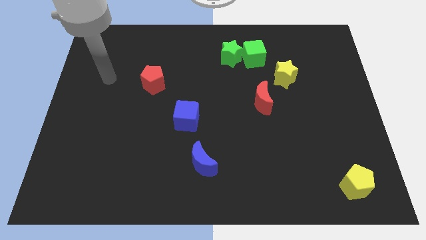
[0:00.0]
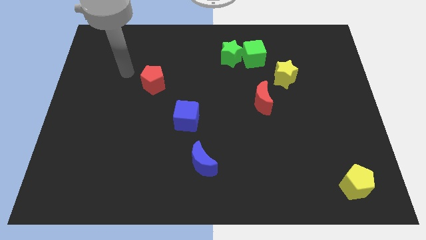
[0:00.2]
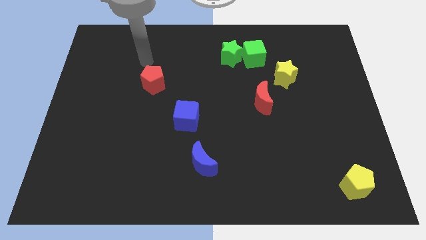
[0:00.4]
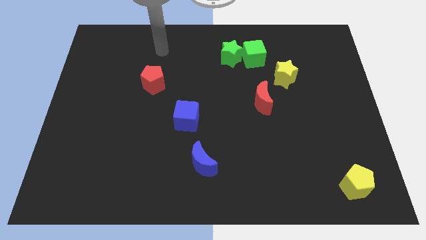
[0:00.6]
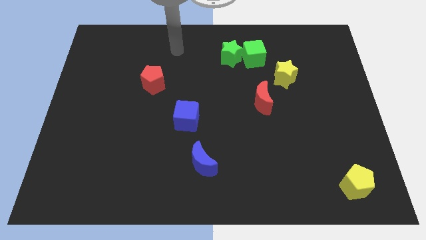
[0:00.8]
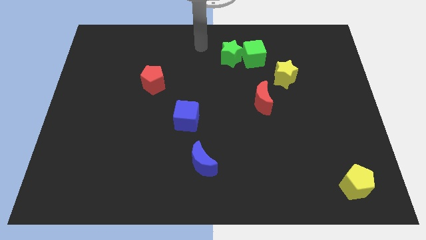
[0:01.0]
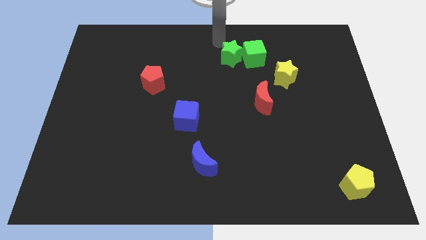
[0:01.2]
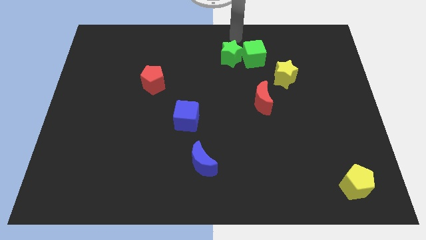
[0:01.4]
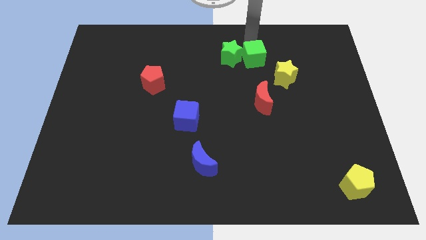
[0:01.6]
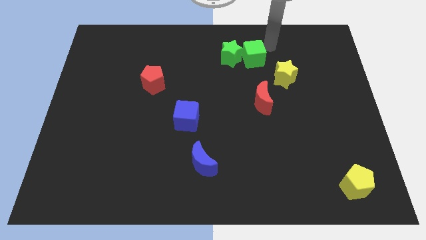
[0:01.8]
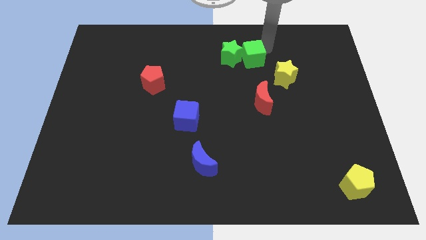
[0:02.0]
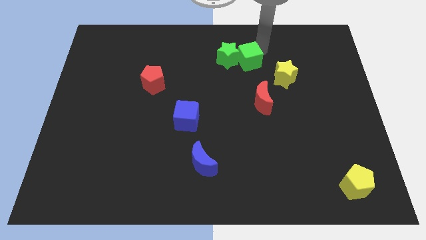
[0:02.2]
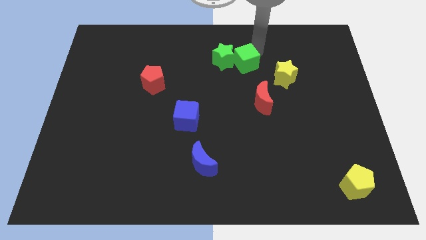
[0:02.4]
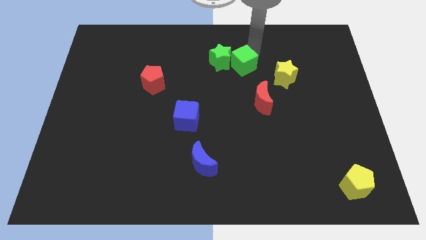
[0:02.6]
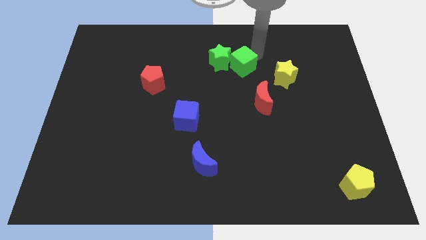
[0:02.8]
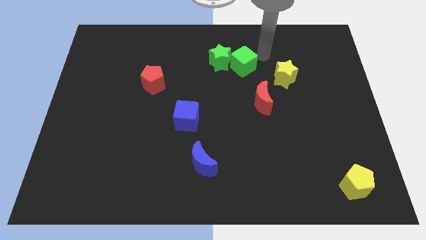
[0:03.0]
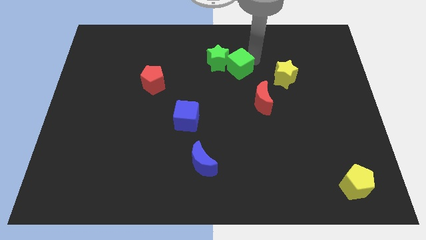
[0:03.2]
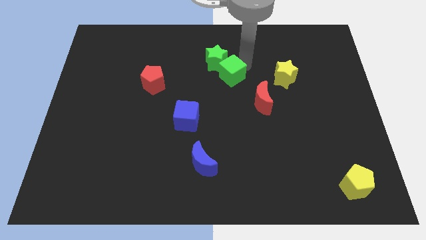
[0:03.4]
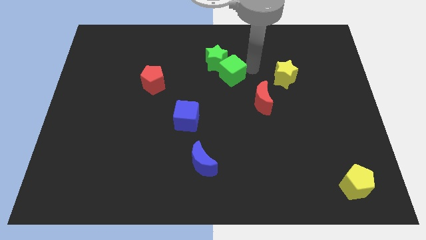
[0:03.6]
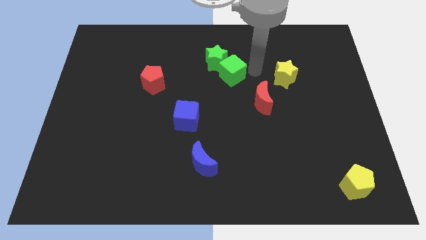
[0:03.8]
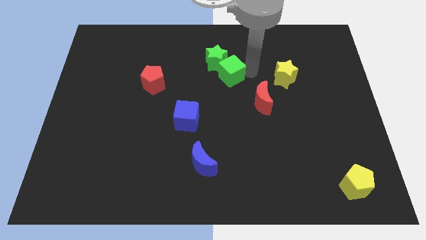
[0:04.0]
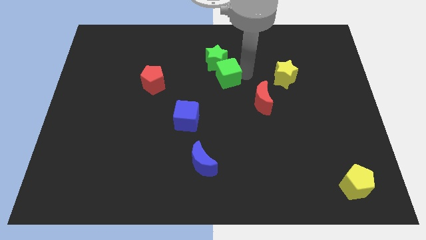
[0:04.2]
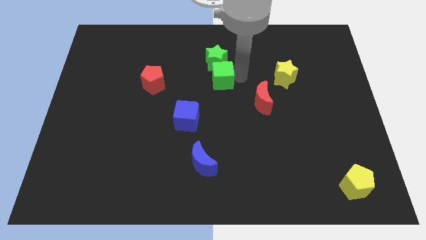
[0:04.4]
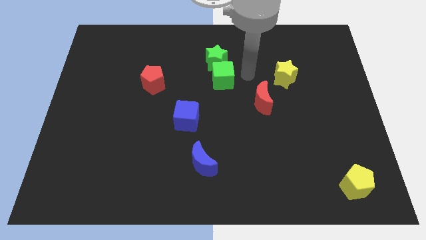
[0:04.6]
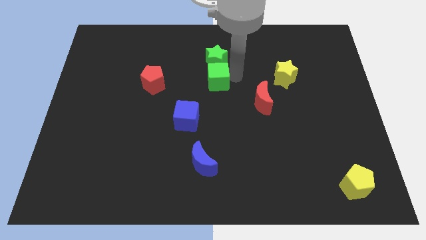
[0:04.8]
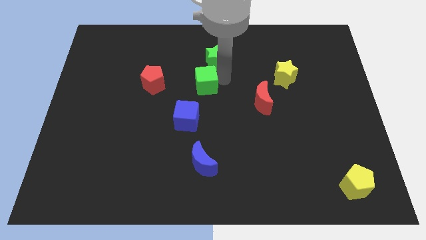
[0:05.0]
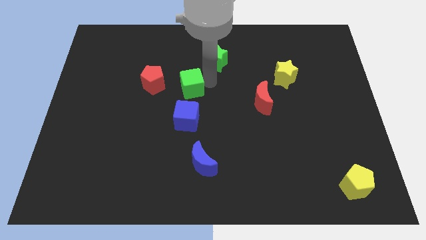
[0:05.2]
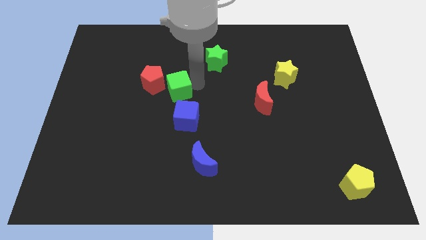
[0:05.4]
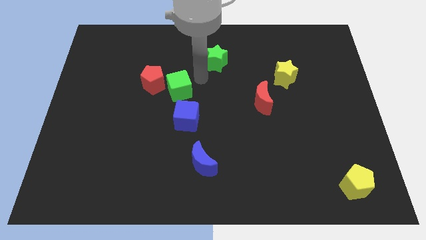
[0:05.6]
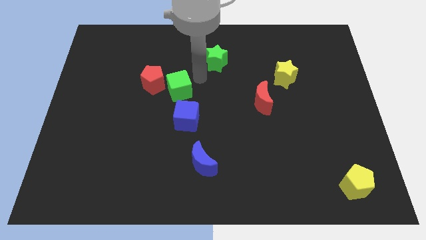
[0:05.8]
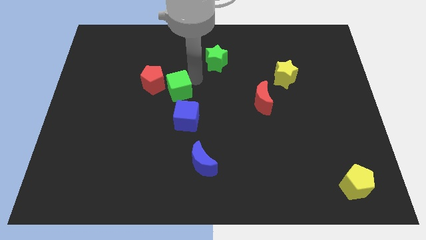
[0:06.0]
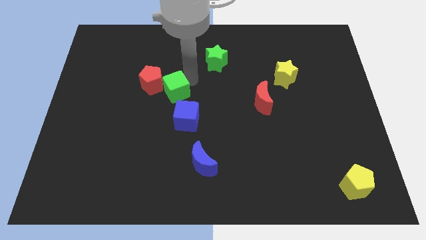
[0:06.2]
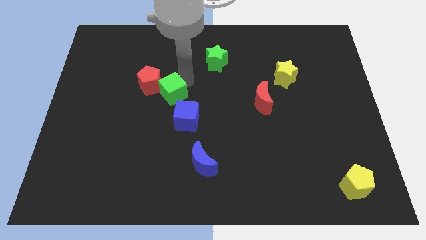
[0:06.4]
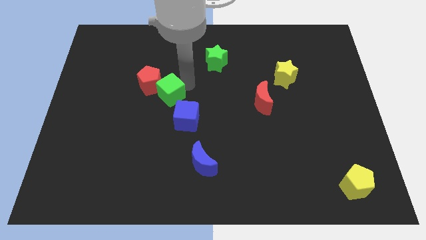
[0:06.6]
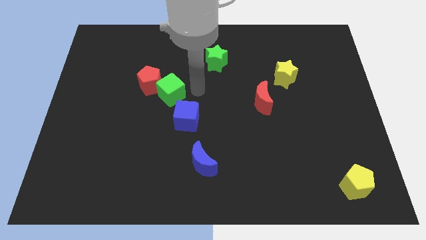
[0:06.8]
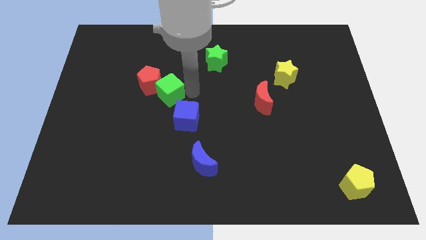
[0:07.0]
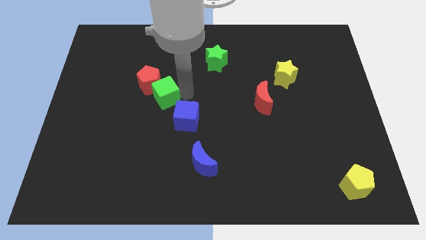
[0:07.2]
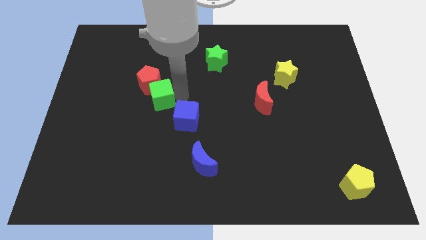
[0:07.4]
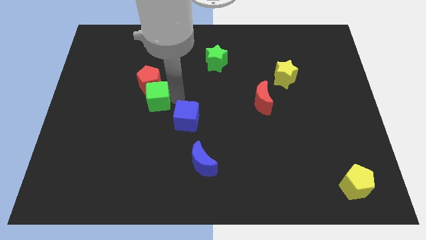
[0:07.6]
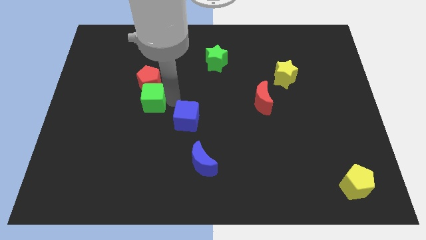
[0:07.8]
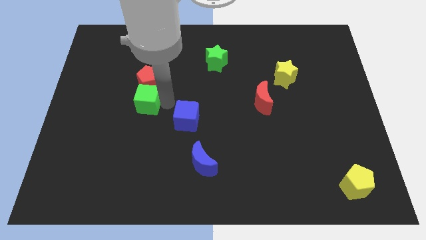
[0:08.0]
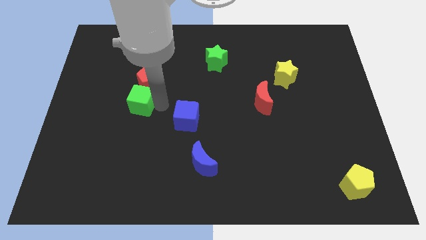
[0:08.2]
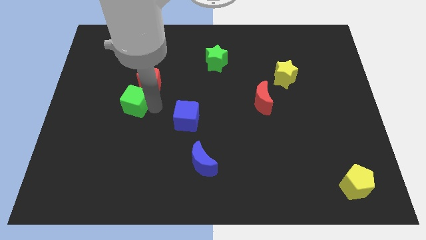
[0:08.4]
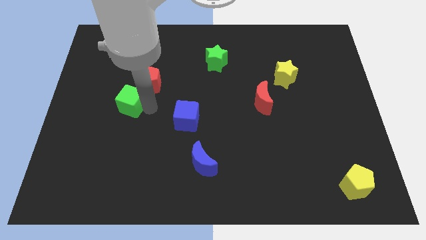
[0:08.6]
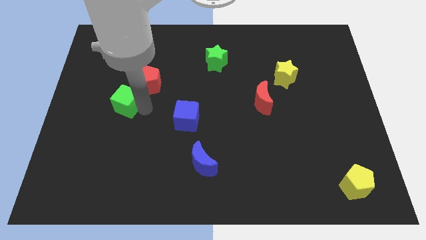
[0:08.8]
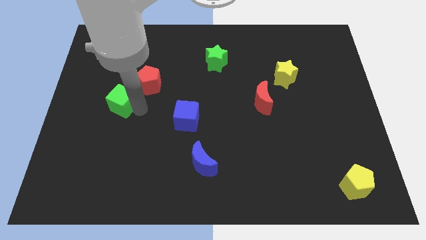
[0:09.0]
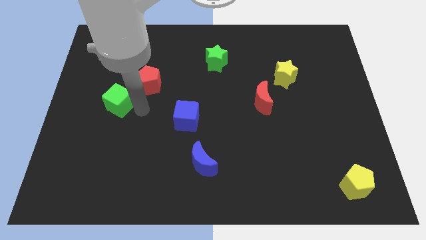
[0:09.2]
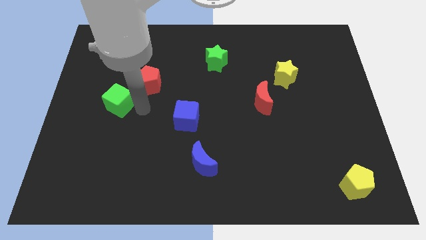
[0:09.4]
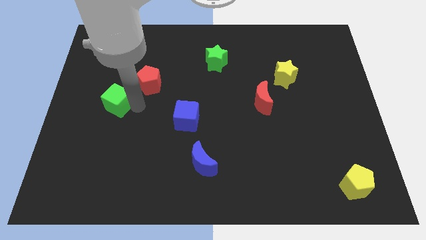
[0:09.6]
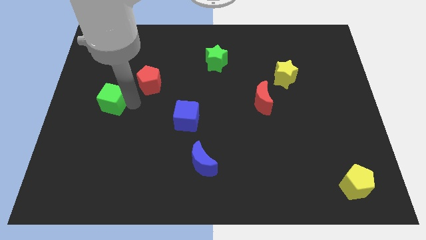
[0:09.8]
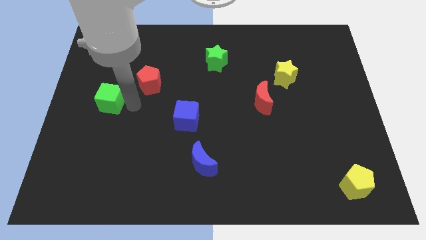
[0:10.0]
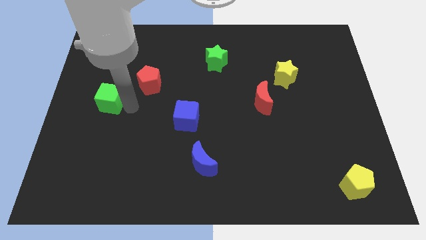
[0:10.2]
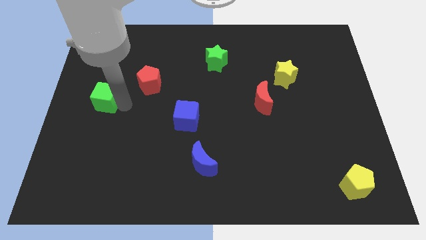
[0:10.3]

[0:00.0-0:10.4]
push the green cube to the center left
